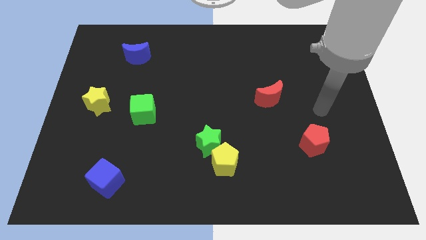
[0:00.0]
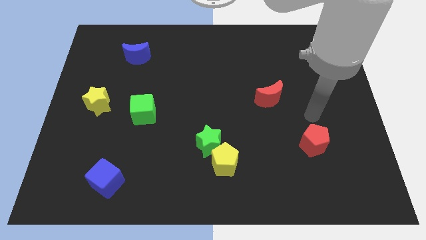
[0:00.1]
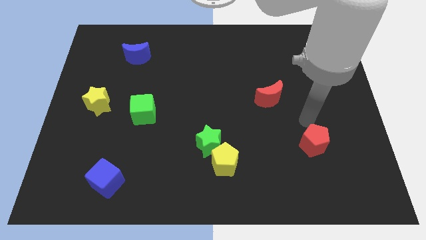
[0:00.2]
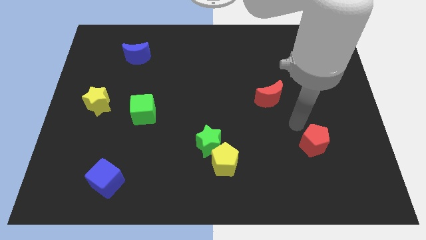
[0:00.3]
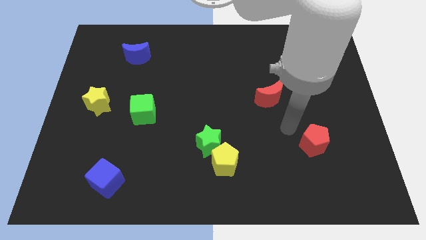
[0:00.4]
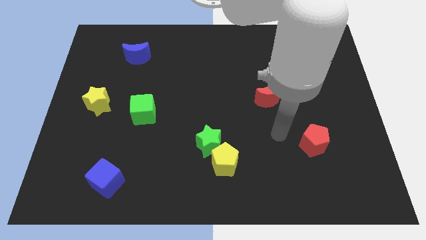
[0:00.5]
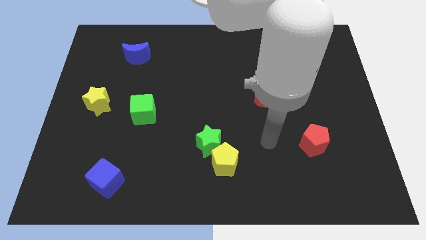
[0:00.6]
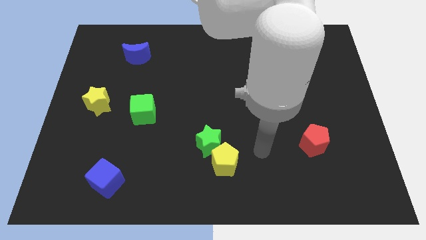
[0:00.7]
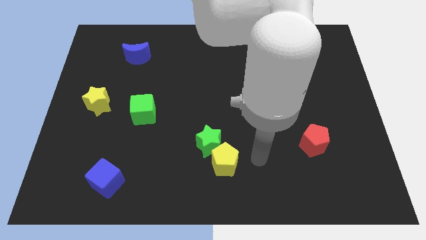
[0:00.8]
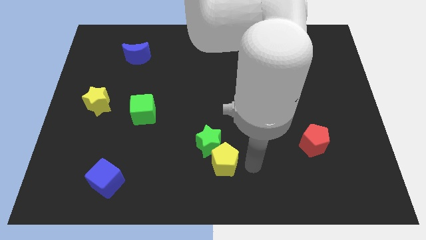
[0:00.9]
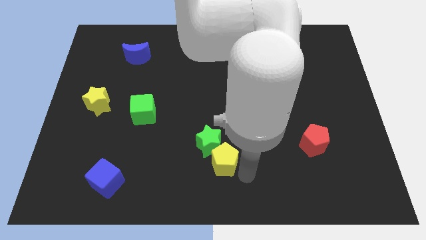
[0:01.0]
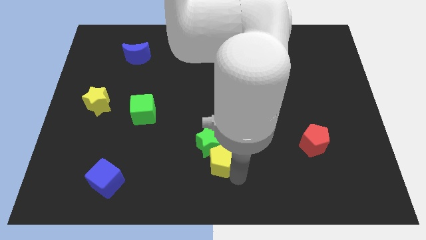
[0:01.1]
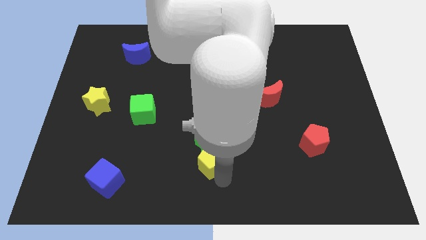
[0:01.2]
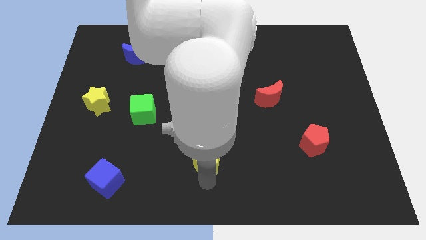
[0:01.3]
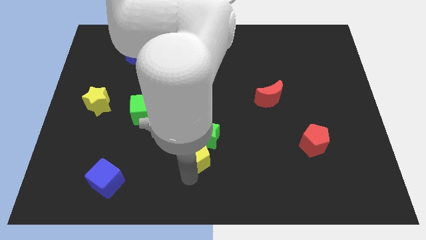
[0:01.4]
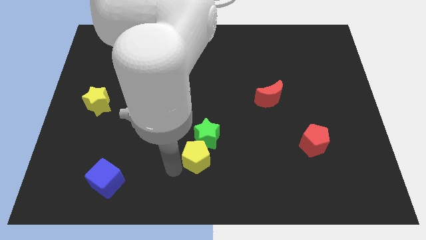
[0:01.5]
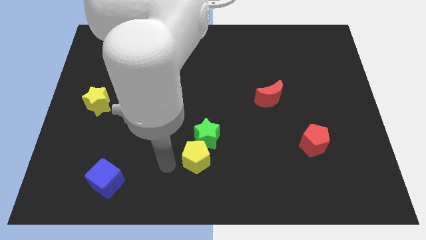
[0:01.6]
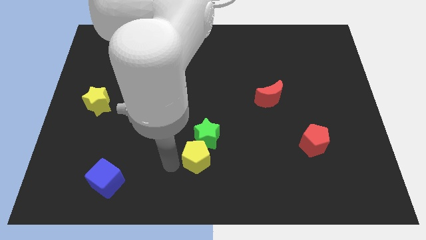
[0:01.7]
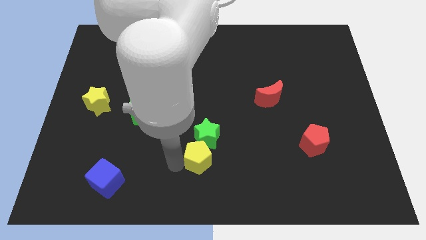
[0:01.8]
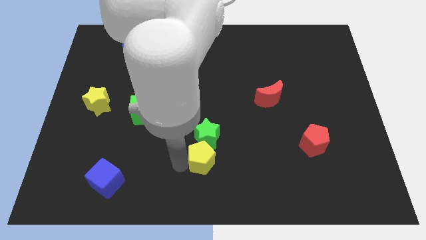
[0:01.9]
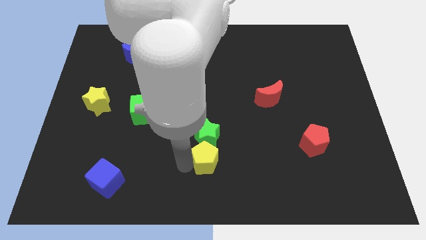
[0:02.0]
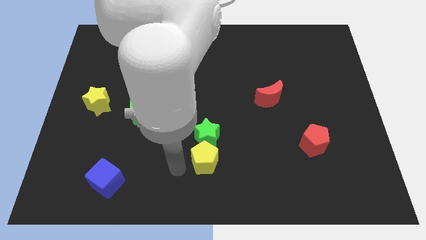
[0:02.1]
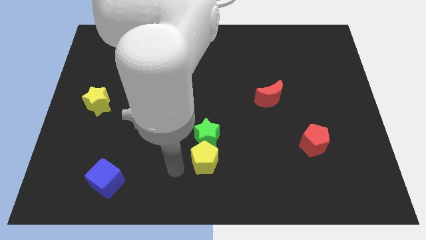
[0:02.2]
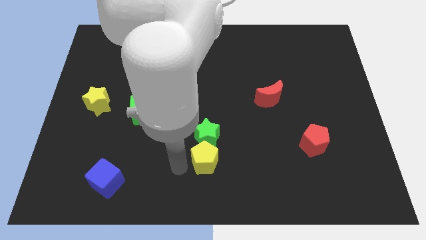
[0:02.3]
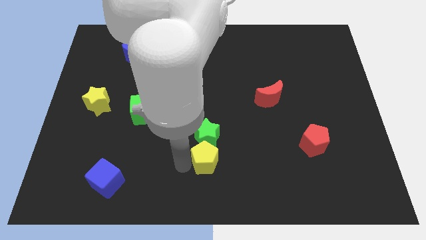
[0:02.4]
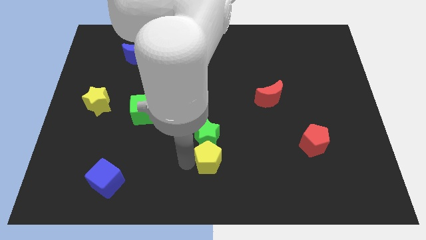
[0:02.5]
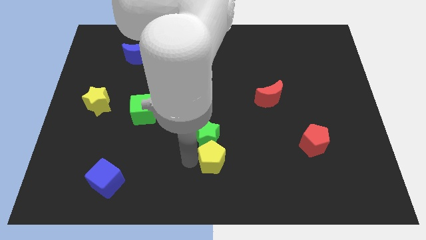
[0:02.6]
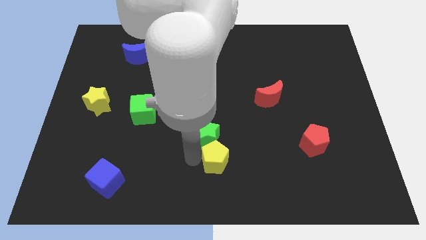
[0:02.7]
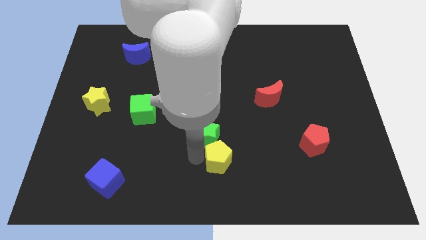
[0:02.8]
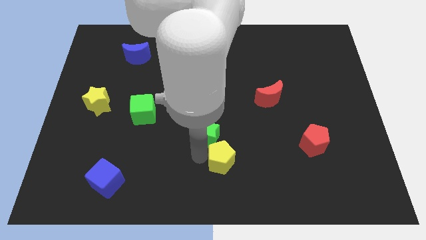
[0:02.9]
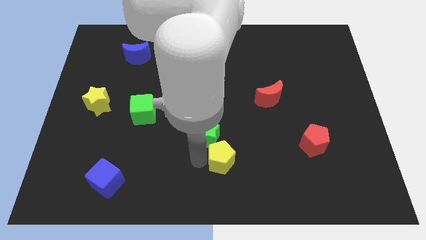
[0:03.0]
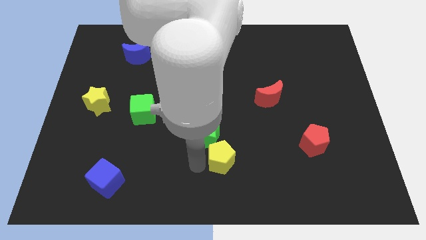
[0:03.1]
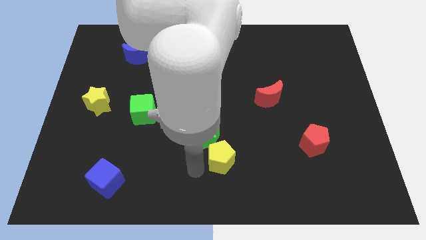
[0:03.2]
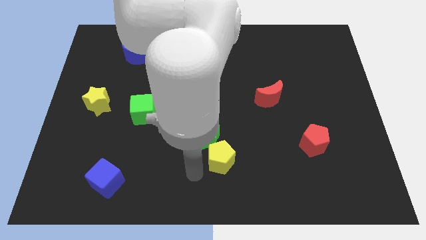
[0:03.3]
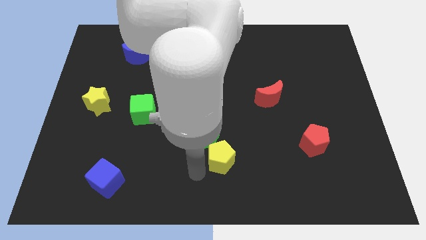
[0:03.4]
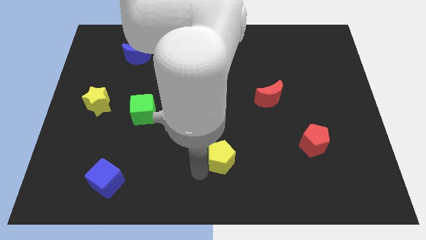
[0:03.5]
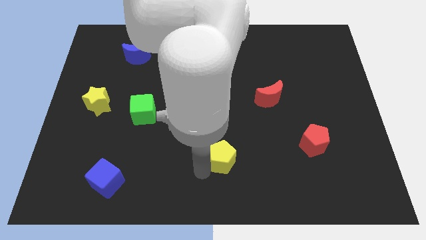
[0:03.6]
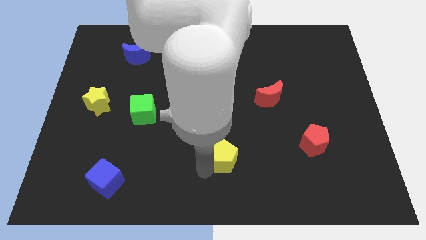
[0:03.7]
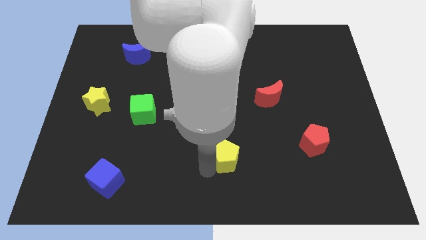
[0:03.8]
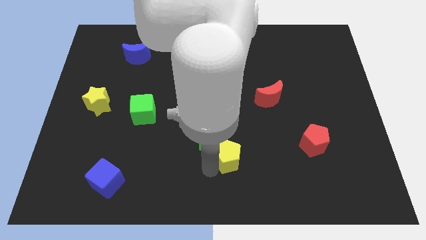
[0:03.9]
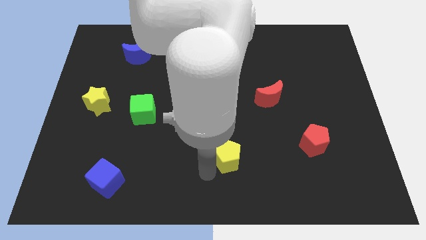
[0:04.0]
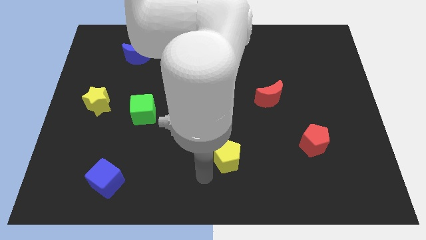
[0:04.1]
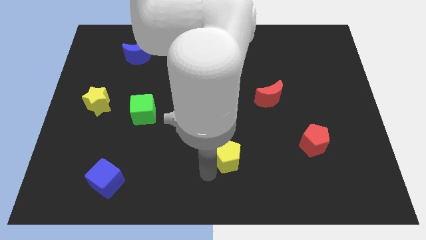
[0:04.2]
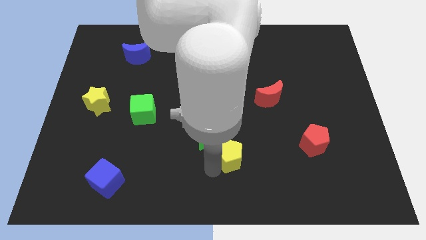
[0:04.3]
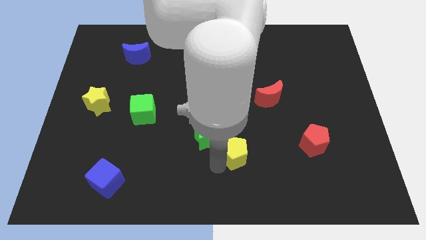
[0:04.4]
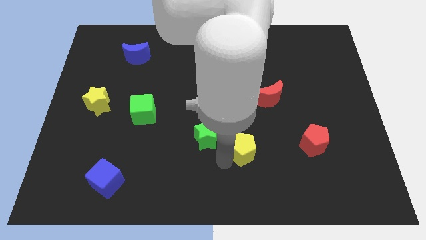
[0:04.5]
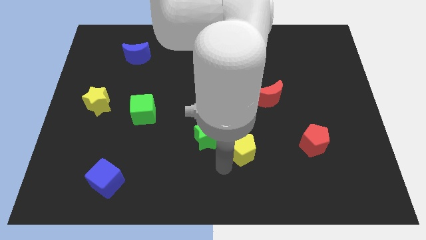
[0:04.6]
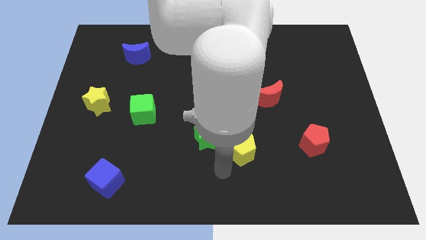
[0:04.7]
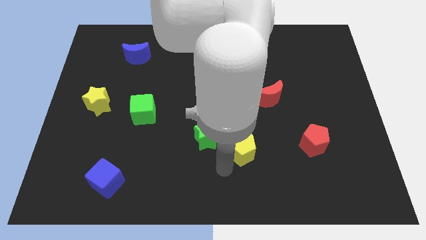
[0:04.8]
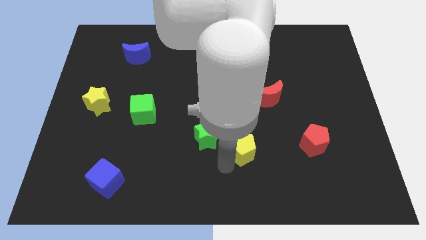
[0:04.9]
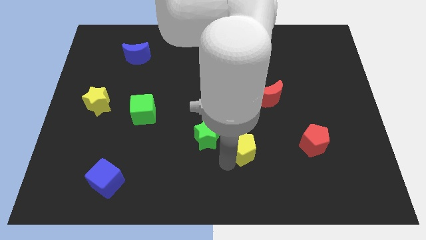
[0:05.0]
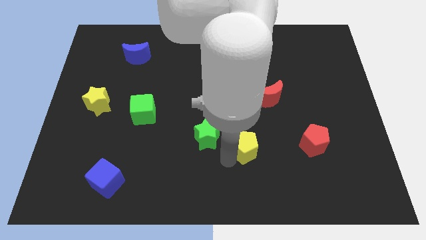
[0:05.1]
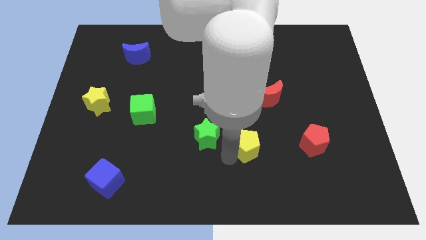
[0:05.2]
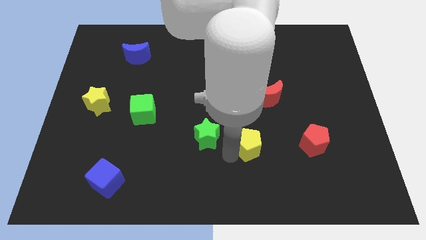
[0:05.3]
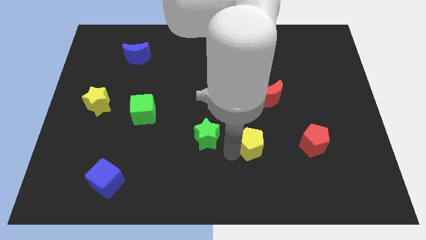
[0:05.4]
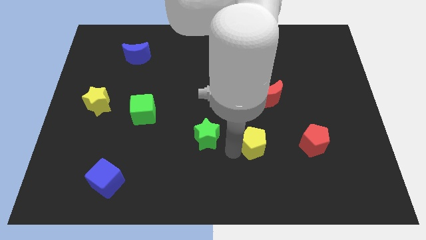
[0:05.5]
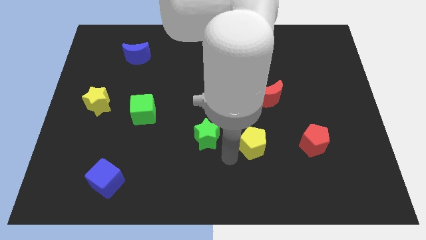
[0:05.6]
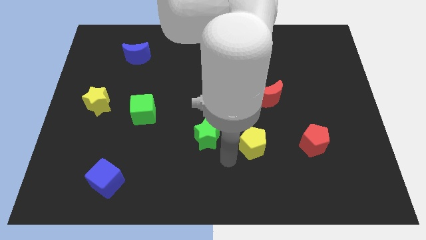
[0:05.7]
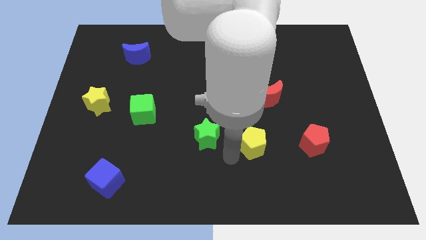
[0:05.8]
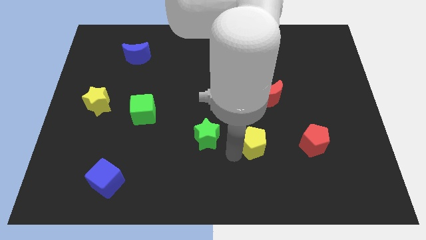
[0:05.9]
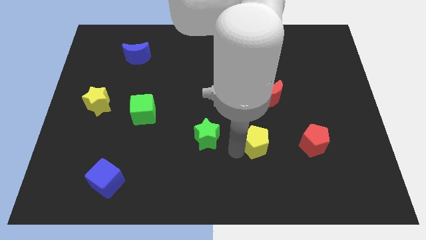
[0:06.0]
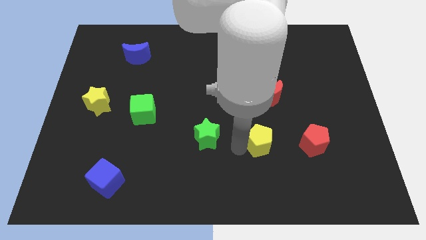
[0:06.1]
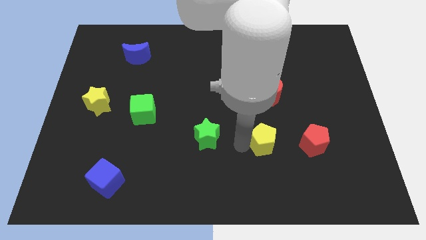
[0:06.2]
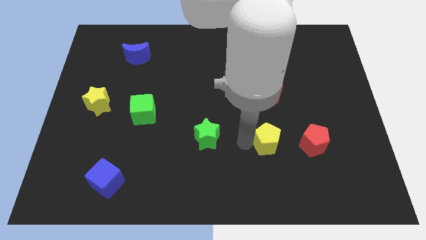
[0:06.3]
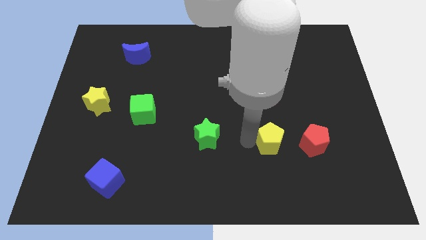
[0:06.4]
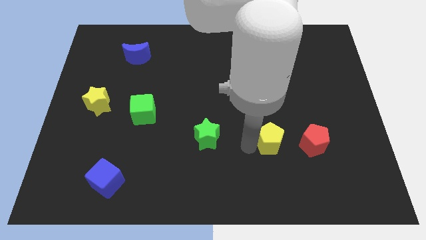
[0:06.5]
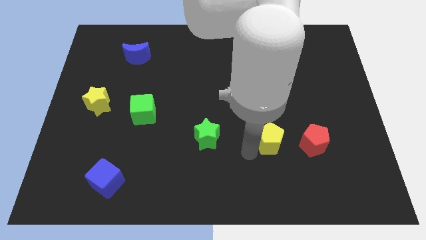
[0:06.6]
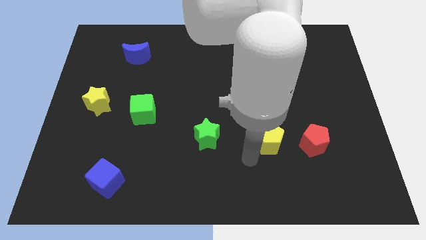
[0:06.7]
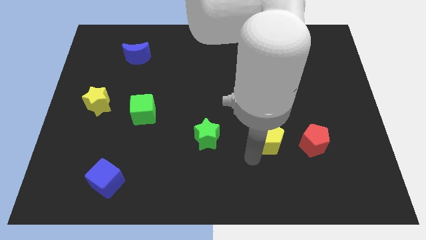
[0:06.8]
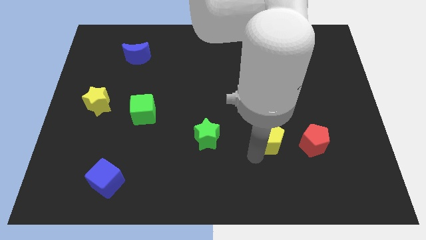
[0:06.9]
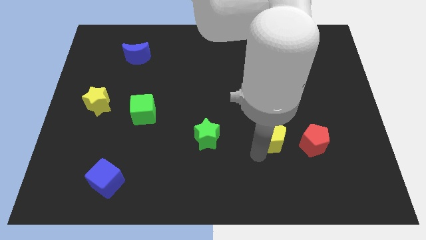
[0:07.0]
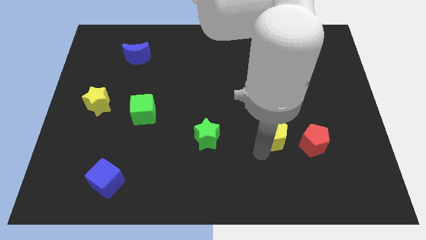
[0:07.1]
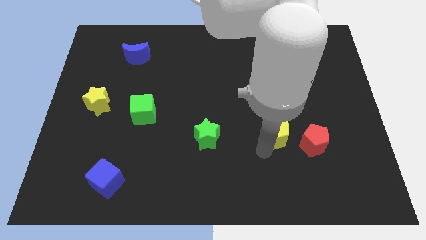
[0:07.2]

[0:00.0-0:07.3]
push the yellow pentagon to the top left of the red pentagon
